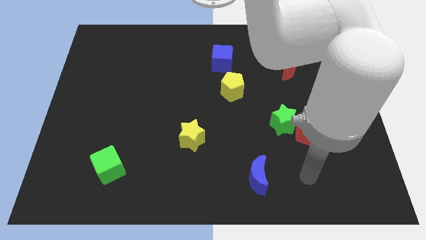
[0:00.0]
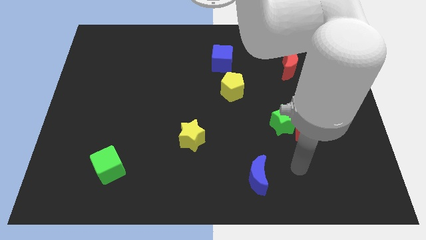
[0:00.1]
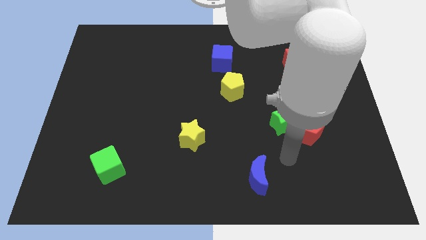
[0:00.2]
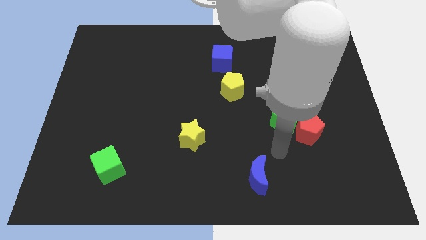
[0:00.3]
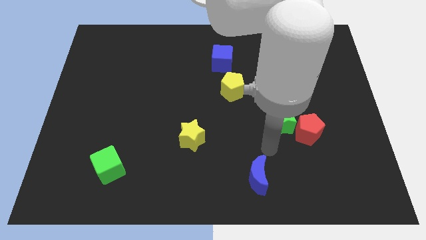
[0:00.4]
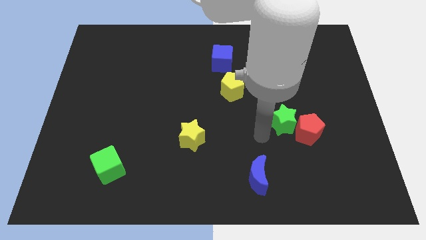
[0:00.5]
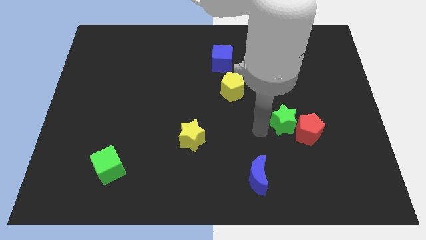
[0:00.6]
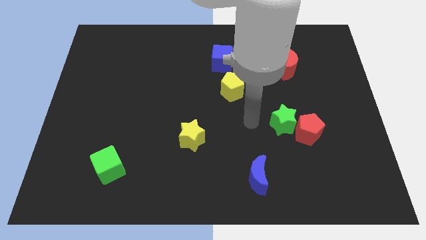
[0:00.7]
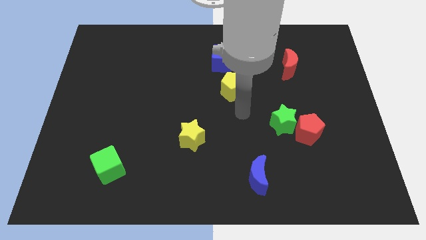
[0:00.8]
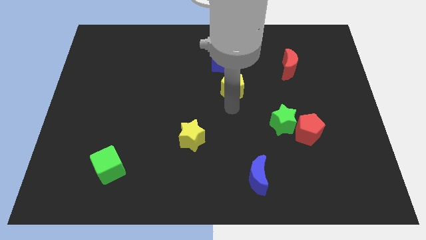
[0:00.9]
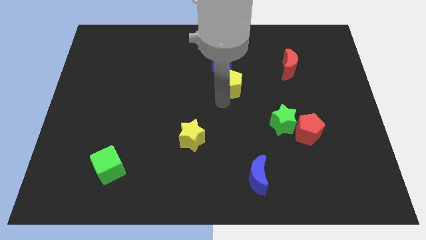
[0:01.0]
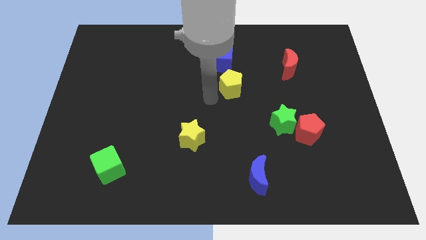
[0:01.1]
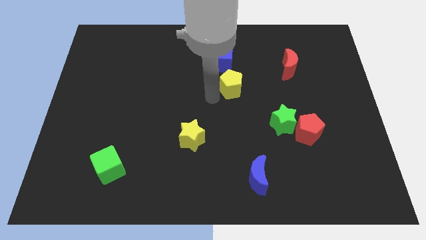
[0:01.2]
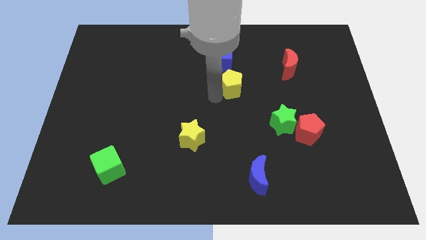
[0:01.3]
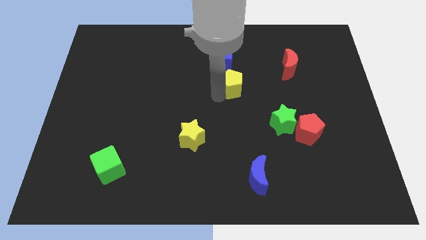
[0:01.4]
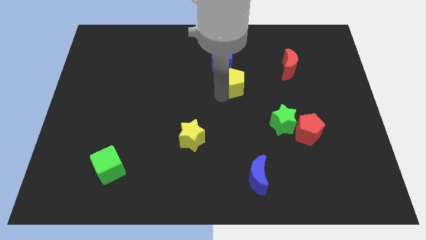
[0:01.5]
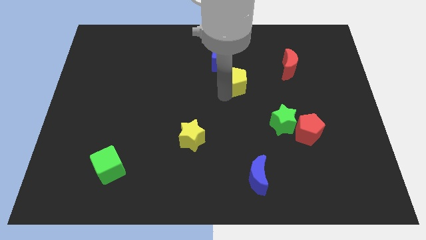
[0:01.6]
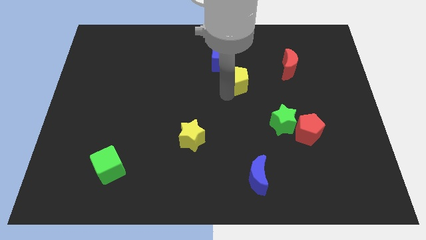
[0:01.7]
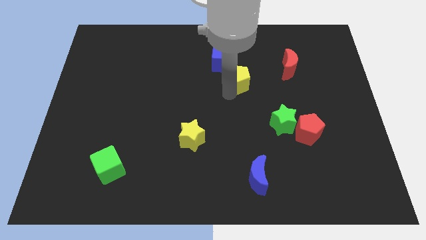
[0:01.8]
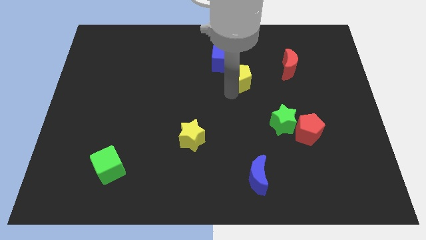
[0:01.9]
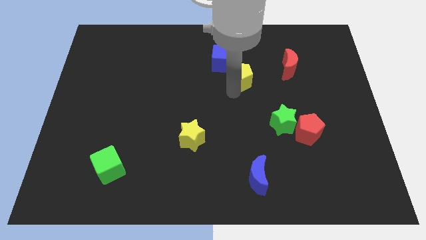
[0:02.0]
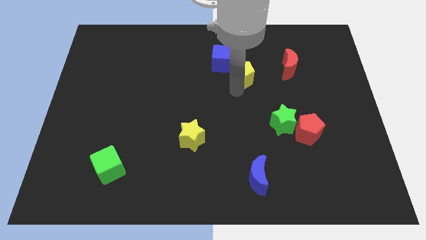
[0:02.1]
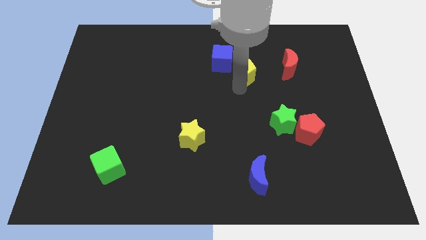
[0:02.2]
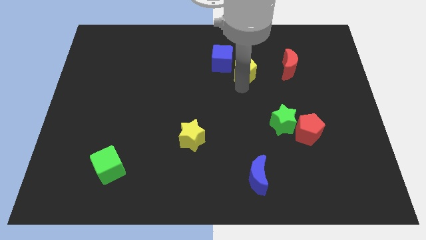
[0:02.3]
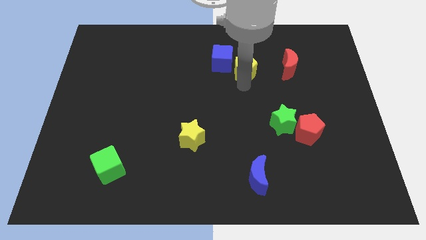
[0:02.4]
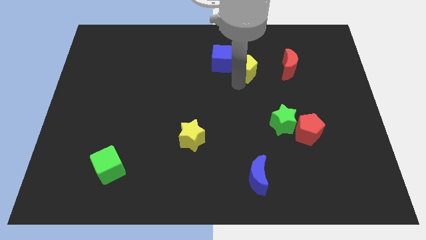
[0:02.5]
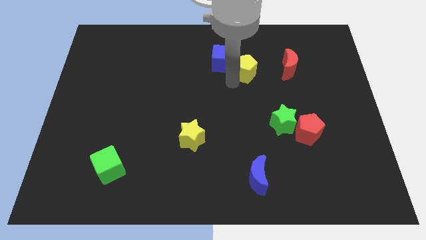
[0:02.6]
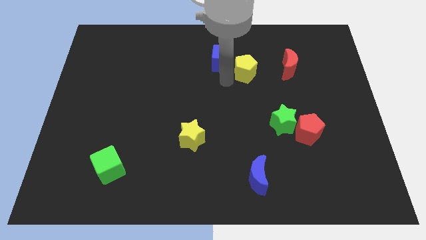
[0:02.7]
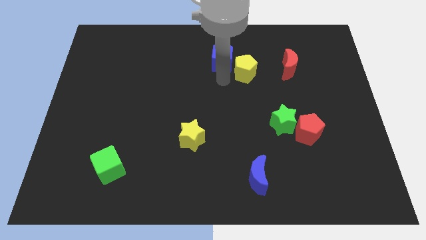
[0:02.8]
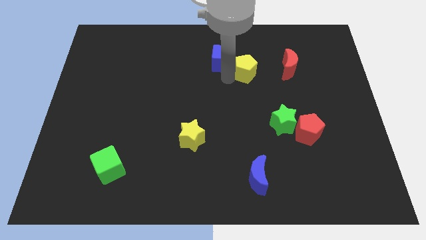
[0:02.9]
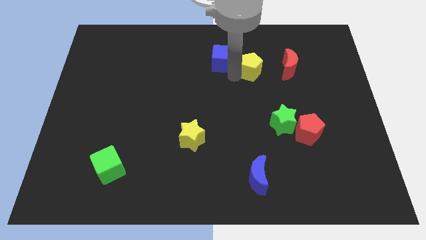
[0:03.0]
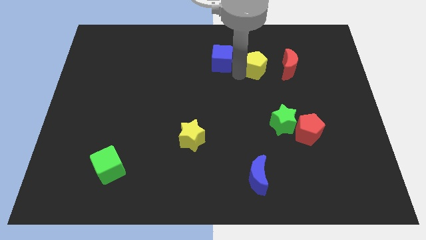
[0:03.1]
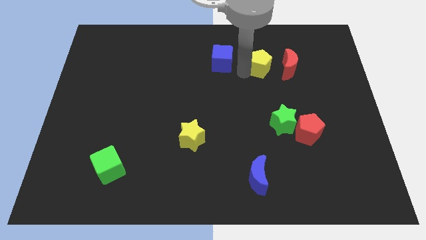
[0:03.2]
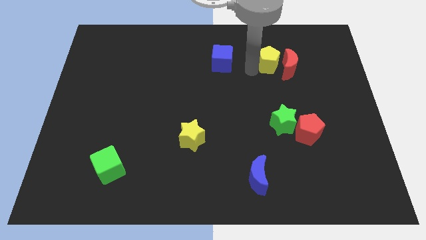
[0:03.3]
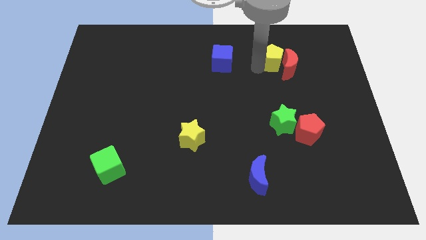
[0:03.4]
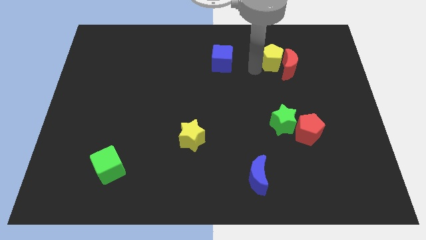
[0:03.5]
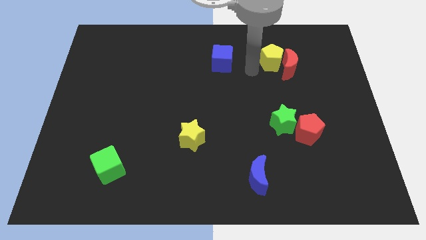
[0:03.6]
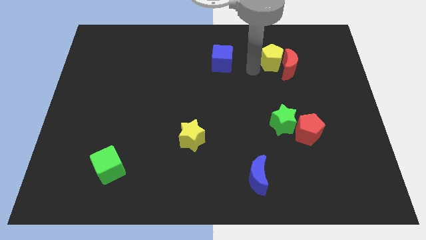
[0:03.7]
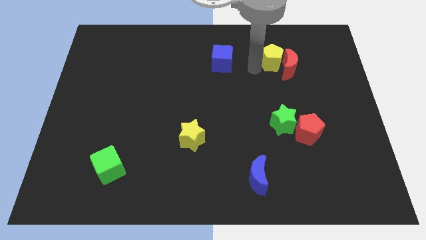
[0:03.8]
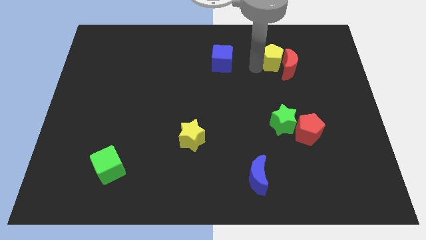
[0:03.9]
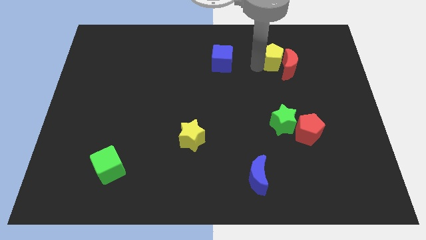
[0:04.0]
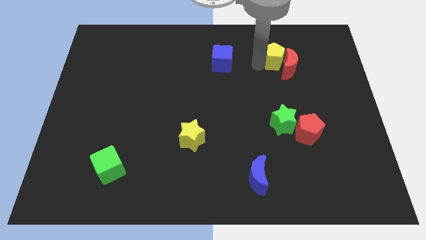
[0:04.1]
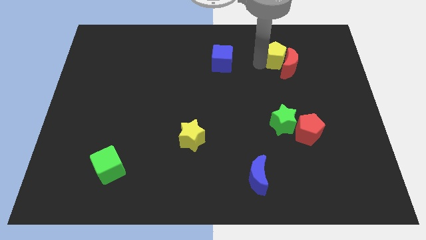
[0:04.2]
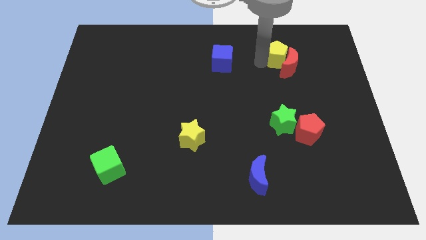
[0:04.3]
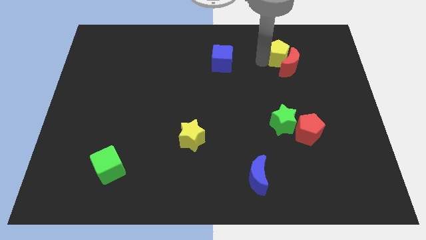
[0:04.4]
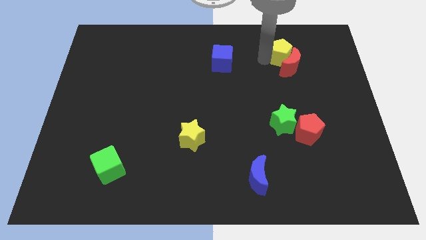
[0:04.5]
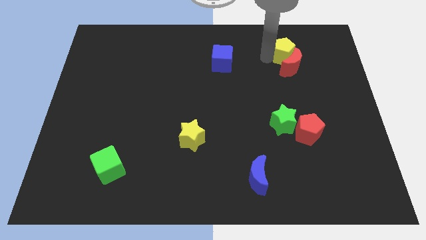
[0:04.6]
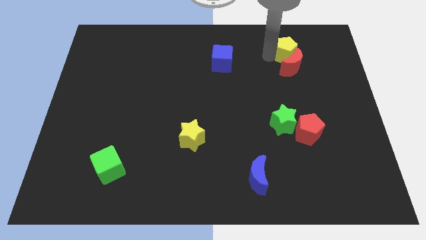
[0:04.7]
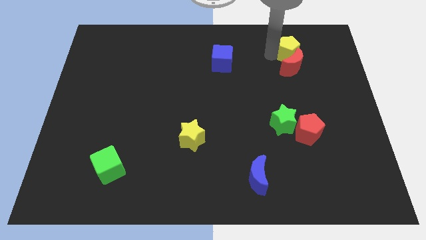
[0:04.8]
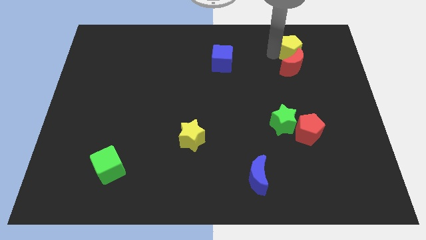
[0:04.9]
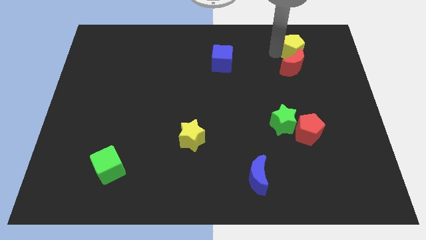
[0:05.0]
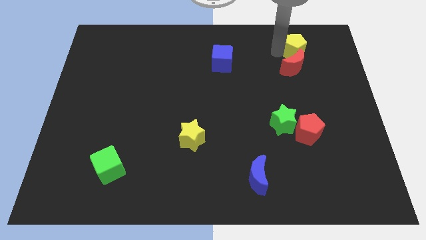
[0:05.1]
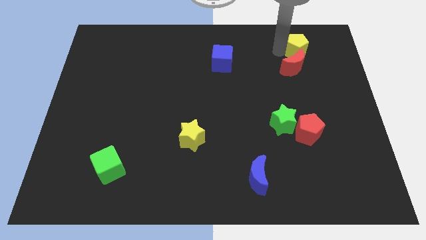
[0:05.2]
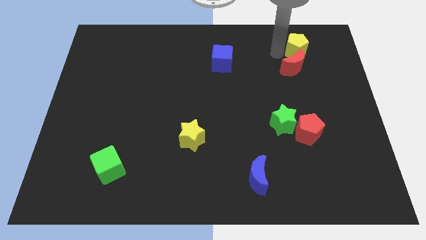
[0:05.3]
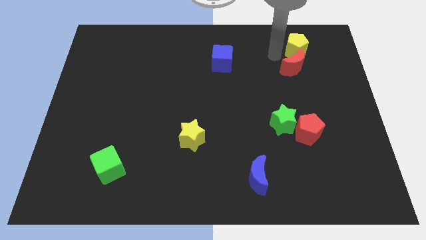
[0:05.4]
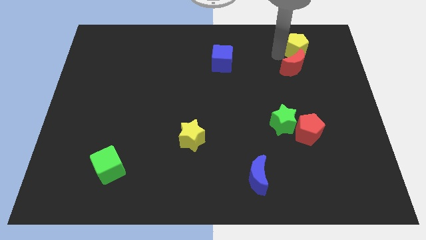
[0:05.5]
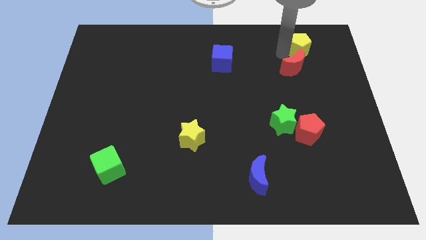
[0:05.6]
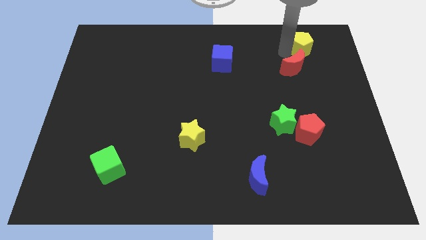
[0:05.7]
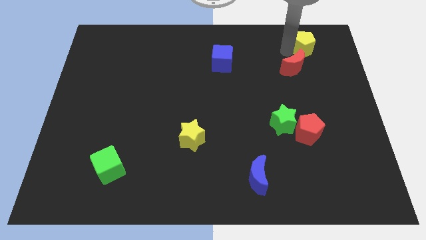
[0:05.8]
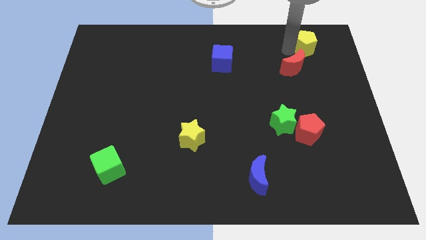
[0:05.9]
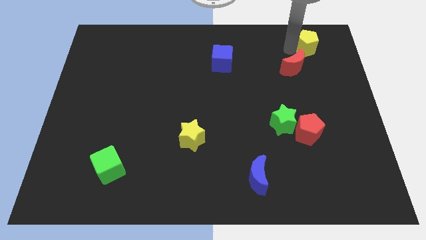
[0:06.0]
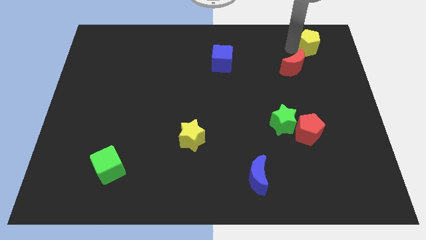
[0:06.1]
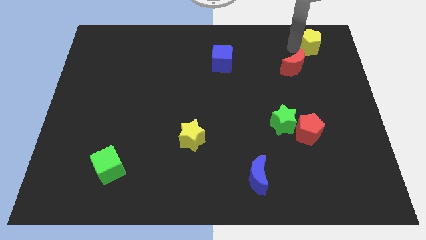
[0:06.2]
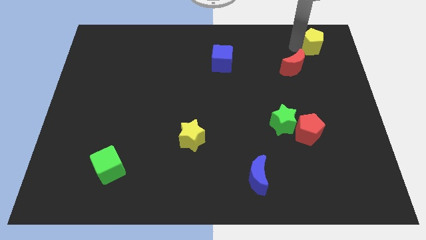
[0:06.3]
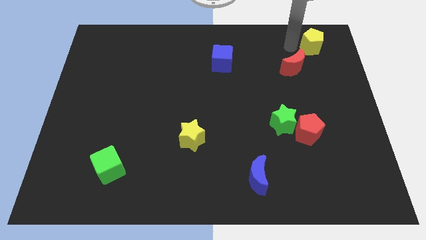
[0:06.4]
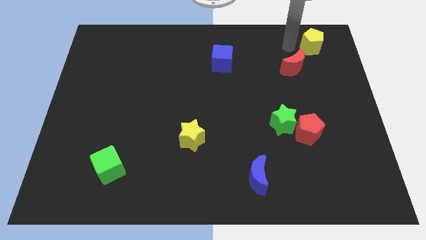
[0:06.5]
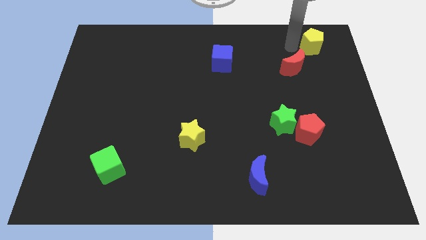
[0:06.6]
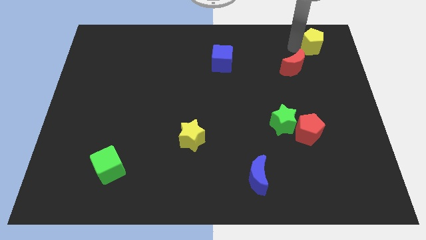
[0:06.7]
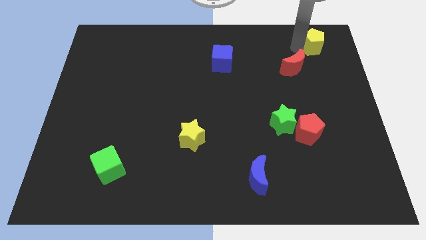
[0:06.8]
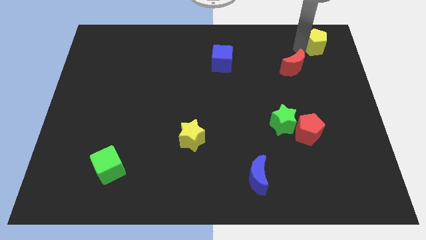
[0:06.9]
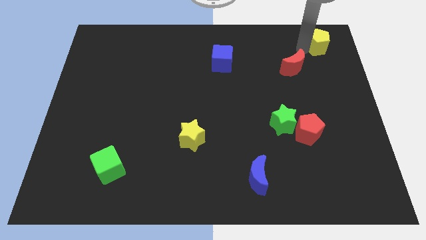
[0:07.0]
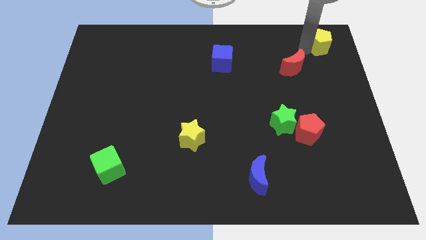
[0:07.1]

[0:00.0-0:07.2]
move the yellow pentagon to the upper right corner
